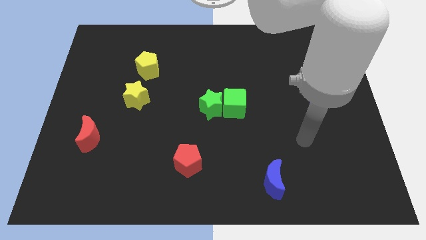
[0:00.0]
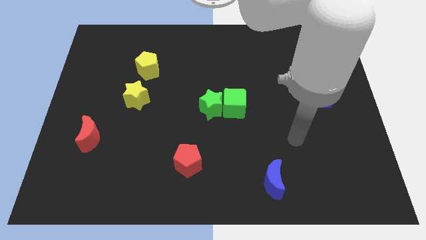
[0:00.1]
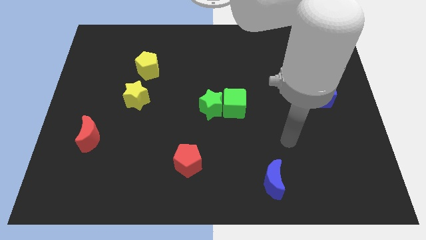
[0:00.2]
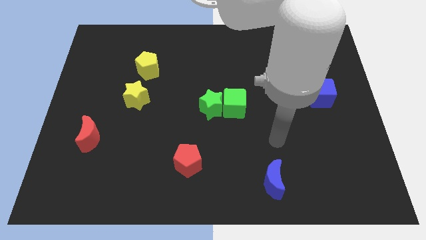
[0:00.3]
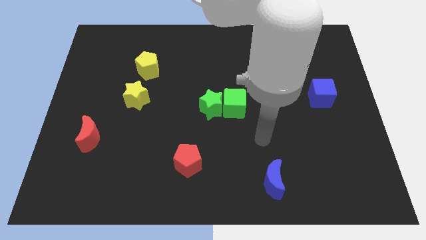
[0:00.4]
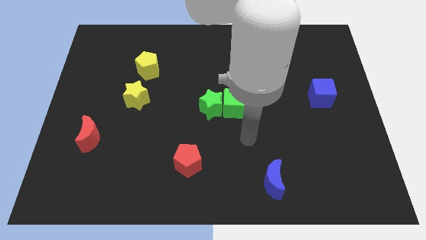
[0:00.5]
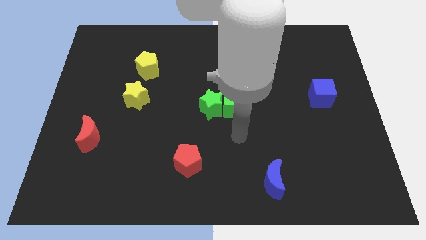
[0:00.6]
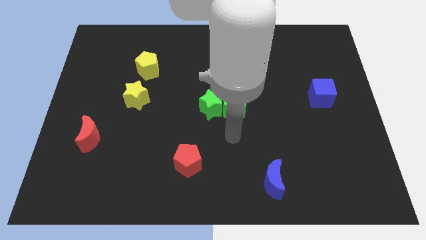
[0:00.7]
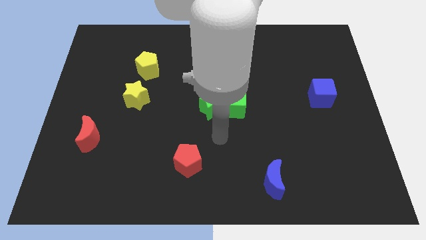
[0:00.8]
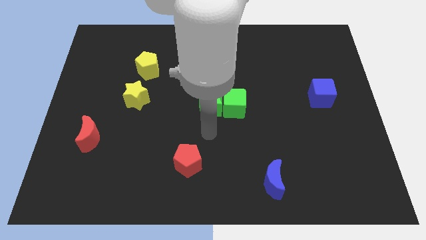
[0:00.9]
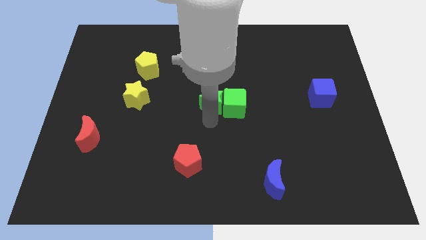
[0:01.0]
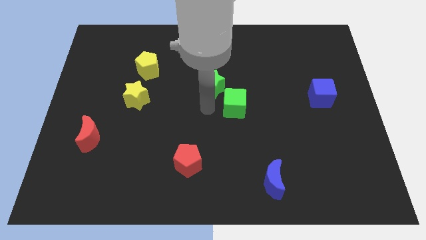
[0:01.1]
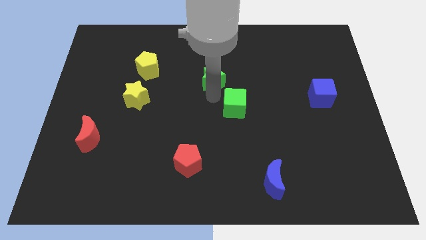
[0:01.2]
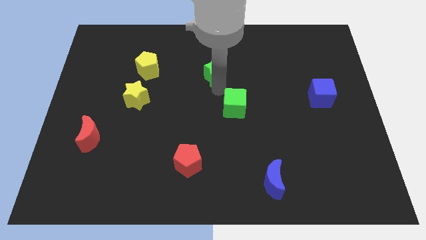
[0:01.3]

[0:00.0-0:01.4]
move the green cube away from the green star

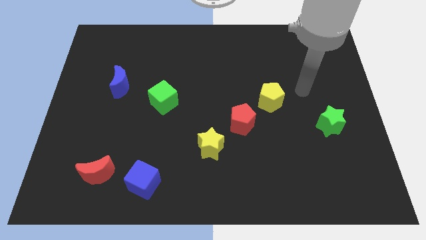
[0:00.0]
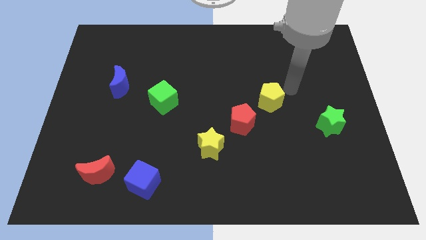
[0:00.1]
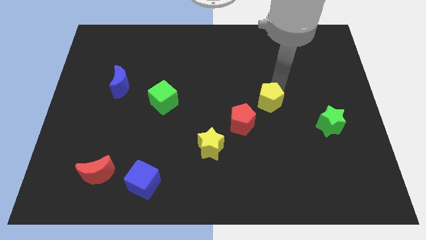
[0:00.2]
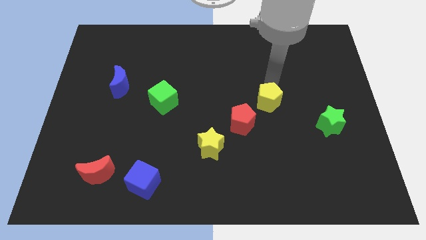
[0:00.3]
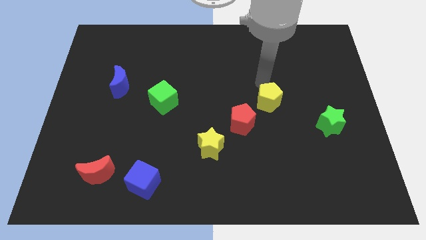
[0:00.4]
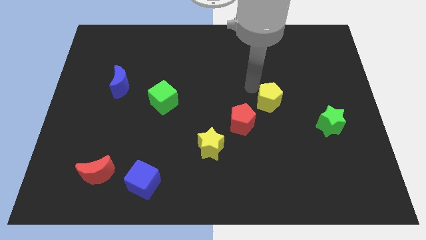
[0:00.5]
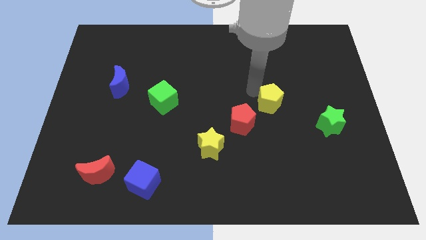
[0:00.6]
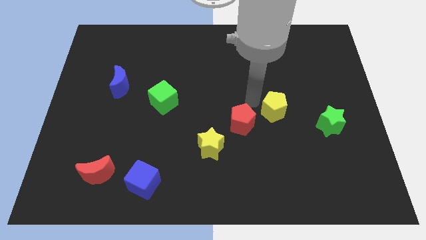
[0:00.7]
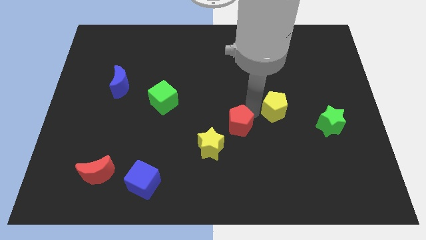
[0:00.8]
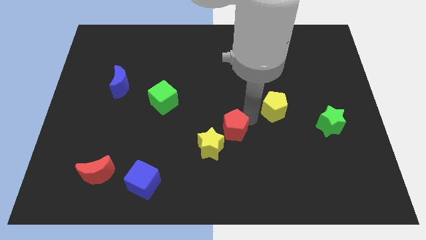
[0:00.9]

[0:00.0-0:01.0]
move the yellow pentagon away from the red pentagon

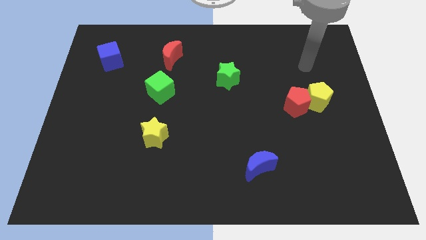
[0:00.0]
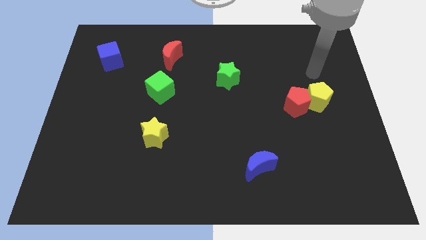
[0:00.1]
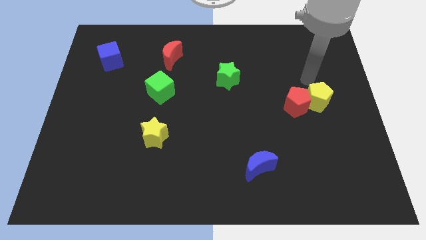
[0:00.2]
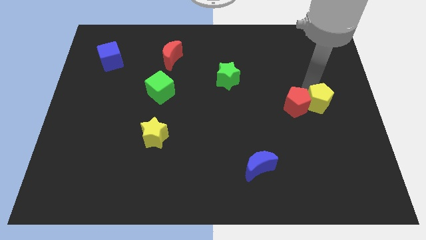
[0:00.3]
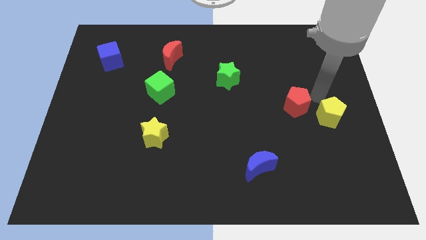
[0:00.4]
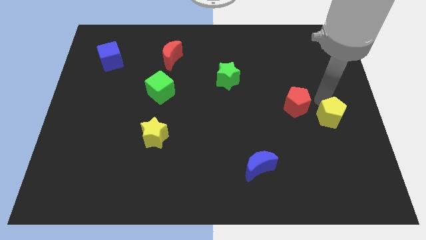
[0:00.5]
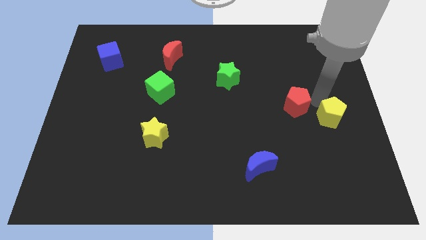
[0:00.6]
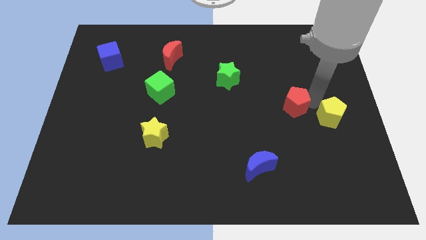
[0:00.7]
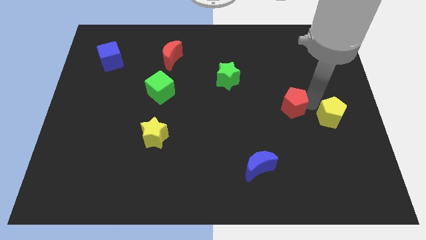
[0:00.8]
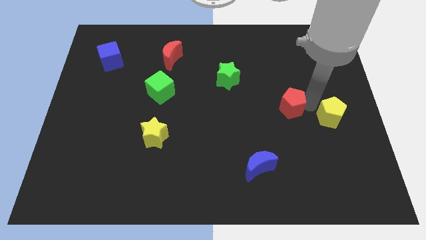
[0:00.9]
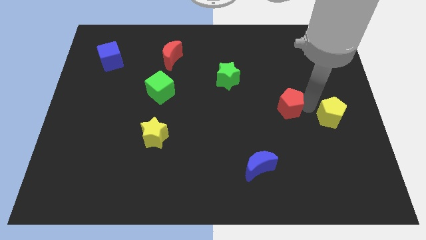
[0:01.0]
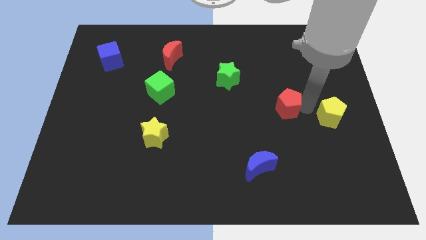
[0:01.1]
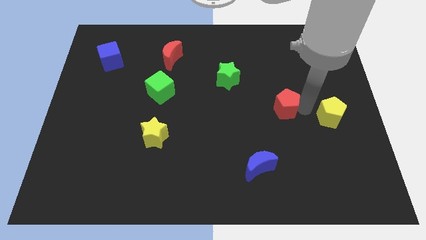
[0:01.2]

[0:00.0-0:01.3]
move the red pentagon away from the yellow pentagon

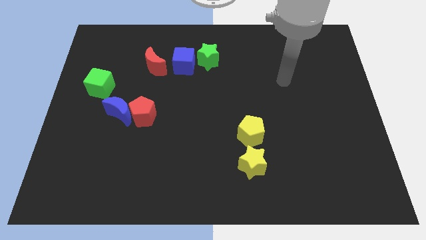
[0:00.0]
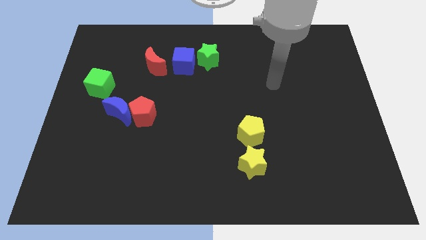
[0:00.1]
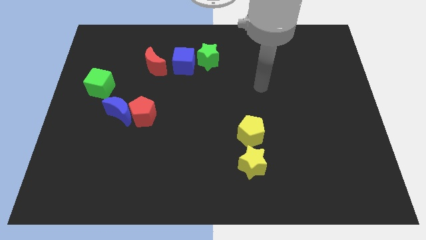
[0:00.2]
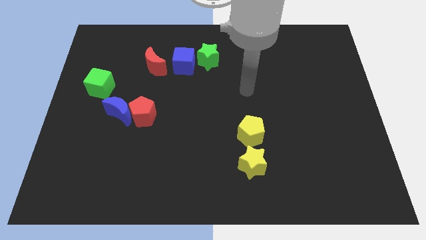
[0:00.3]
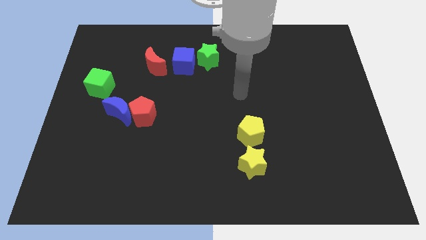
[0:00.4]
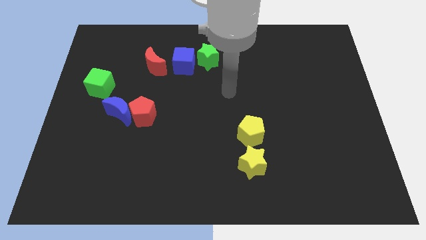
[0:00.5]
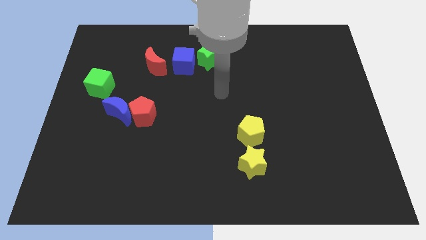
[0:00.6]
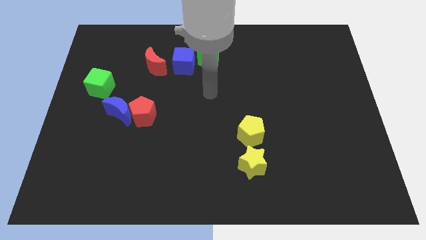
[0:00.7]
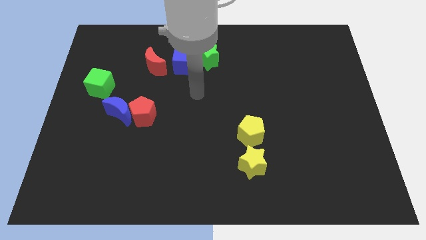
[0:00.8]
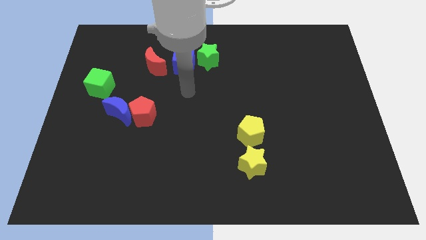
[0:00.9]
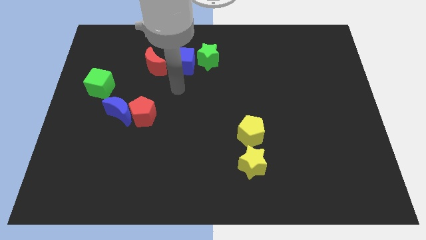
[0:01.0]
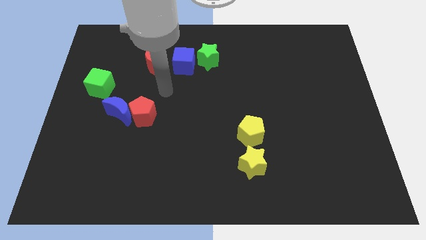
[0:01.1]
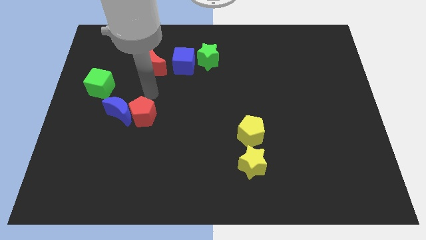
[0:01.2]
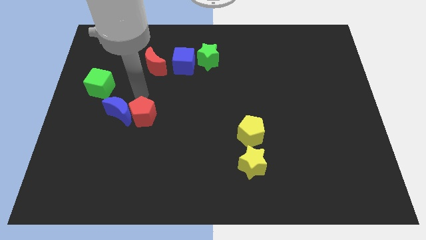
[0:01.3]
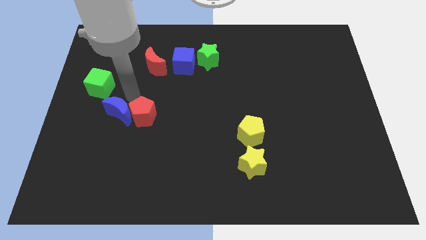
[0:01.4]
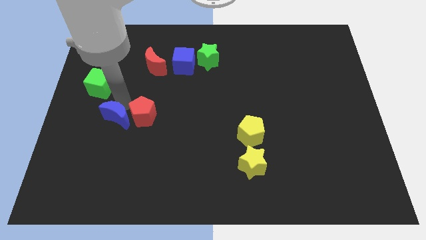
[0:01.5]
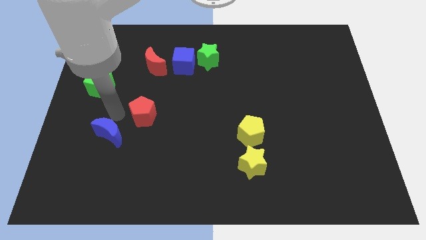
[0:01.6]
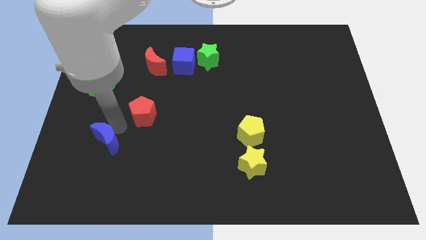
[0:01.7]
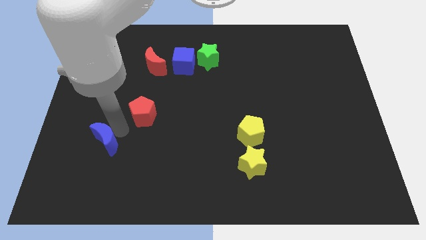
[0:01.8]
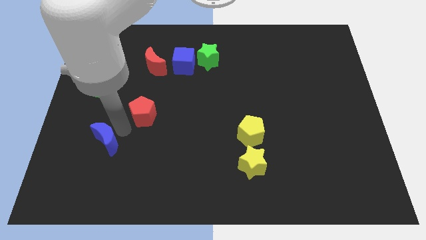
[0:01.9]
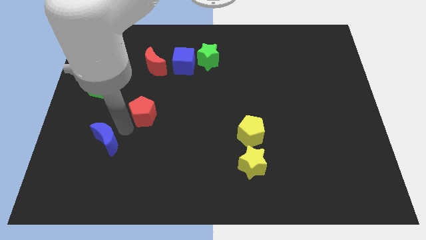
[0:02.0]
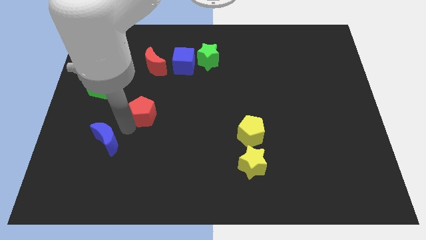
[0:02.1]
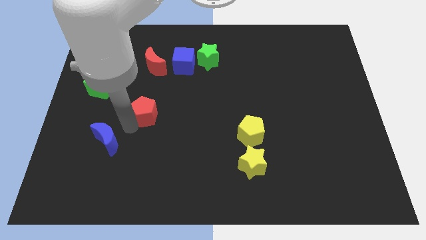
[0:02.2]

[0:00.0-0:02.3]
separate the red pentagon from the blue moon

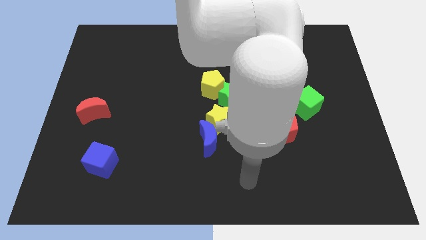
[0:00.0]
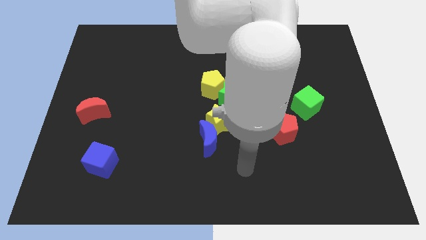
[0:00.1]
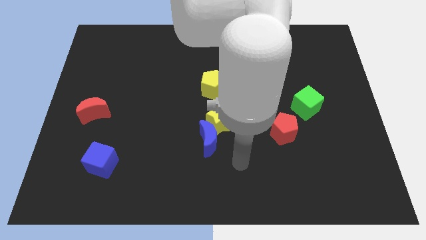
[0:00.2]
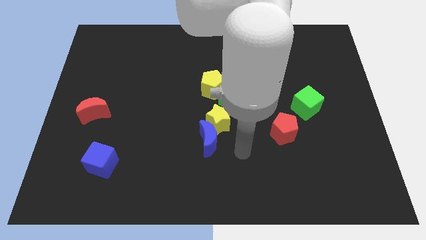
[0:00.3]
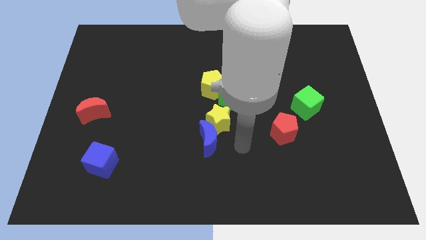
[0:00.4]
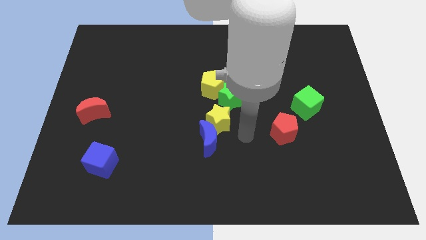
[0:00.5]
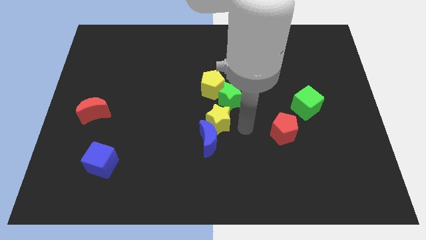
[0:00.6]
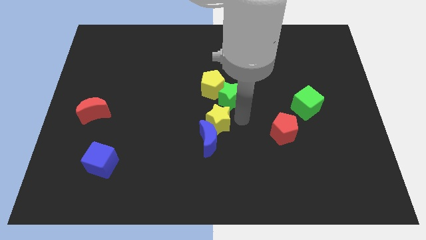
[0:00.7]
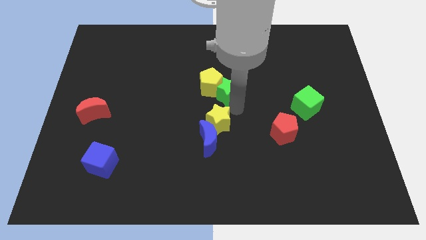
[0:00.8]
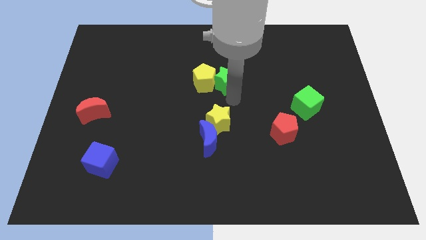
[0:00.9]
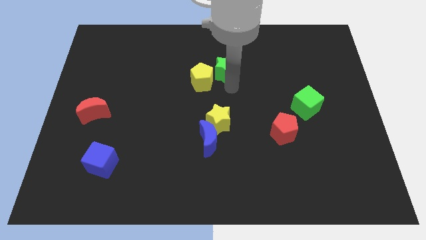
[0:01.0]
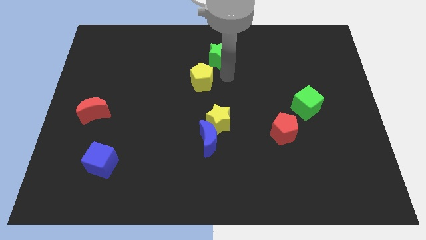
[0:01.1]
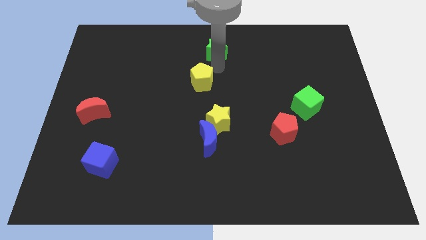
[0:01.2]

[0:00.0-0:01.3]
pull the yellow pentagon apart from the green star

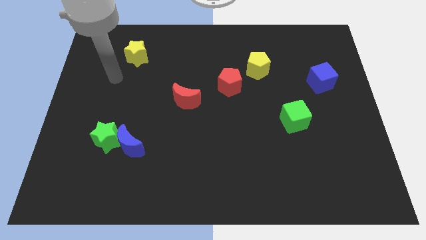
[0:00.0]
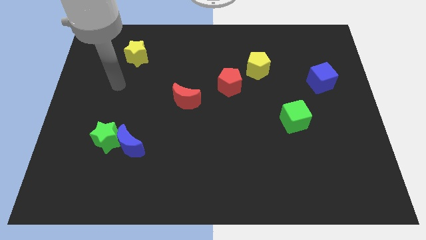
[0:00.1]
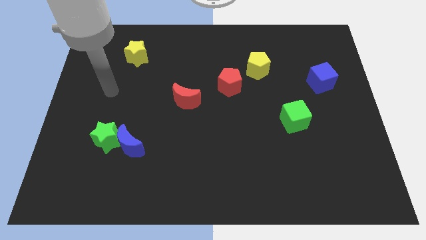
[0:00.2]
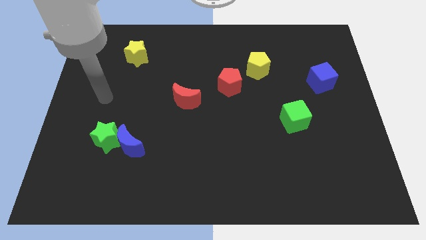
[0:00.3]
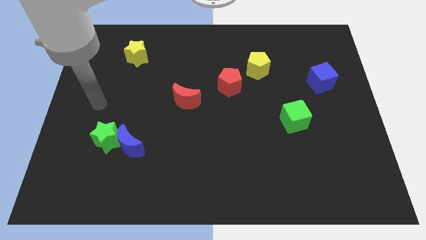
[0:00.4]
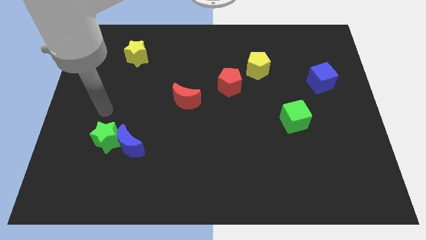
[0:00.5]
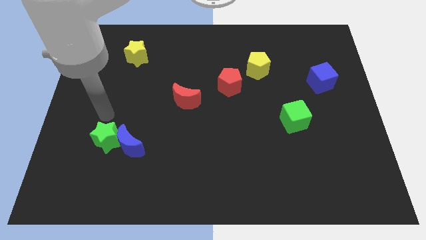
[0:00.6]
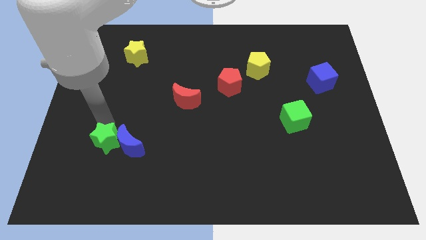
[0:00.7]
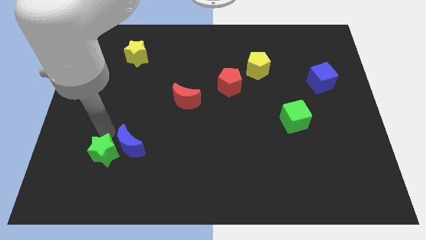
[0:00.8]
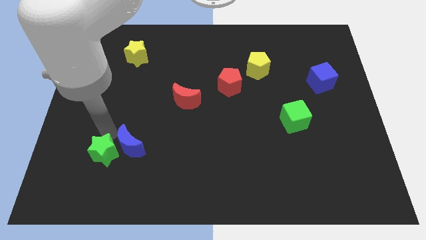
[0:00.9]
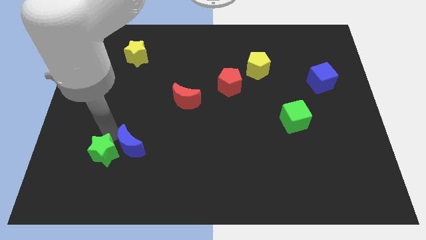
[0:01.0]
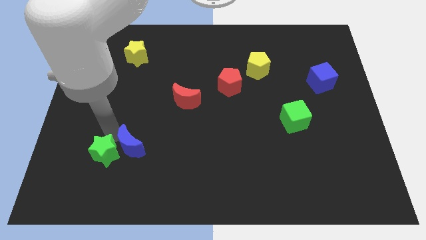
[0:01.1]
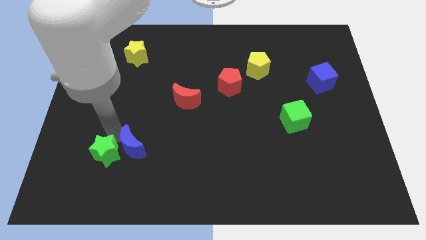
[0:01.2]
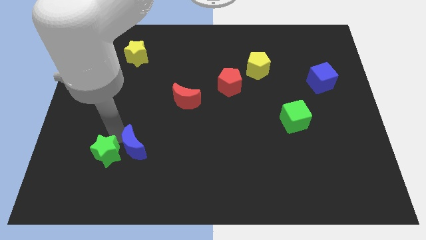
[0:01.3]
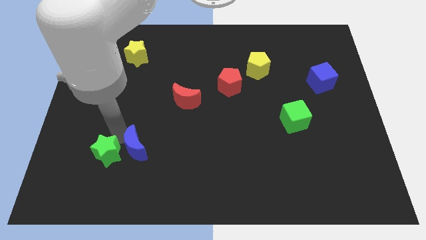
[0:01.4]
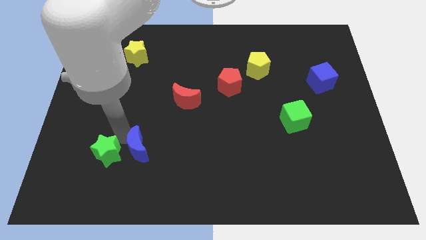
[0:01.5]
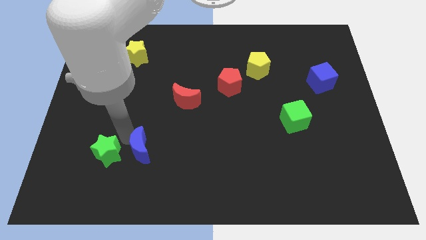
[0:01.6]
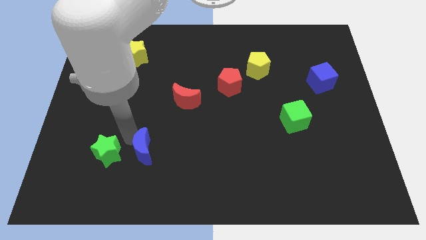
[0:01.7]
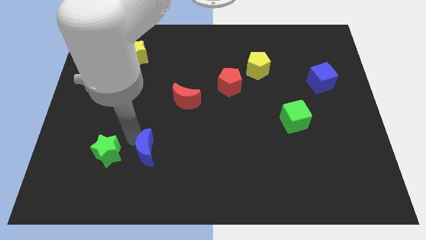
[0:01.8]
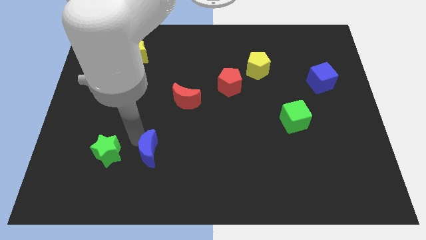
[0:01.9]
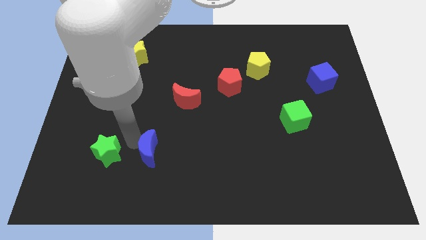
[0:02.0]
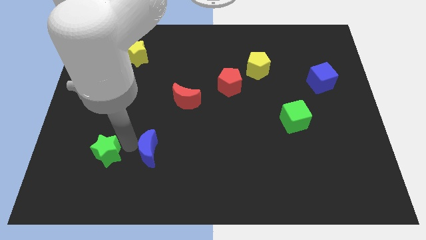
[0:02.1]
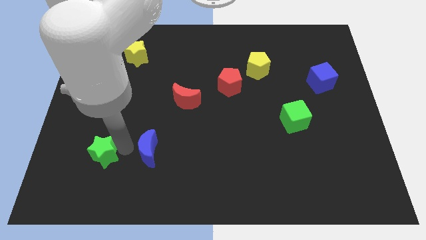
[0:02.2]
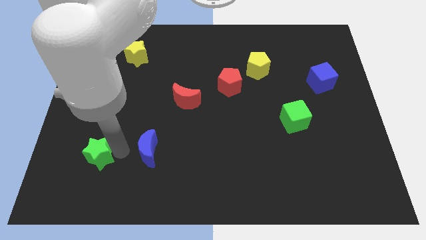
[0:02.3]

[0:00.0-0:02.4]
move the blue moon away from the green star
